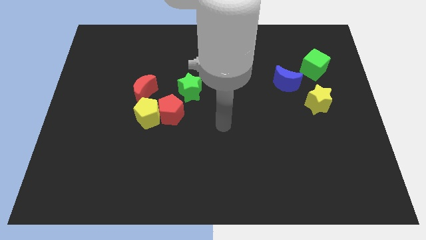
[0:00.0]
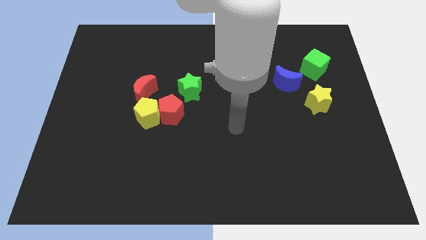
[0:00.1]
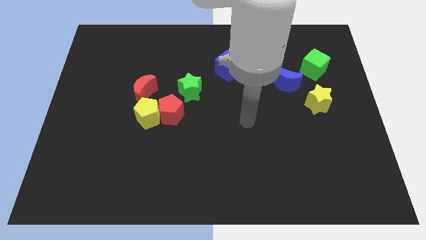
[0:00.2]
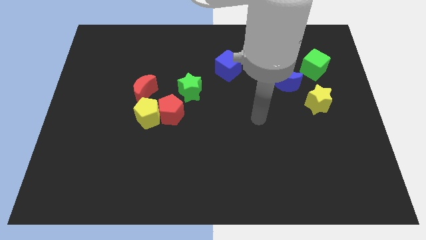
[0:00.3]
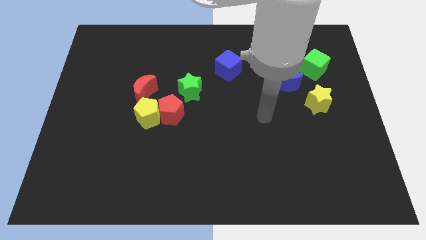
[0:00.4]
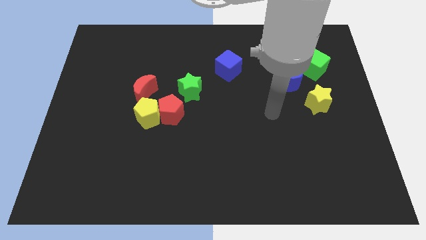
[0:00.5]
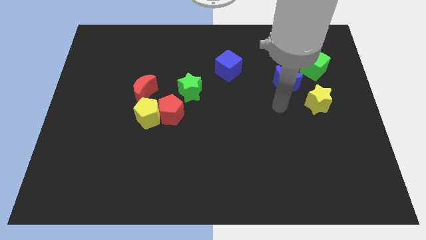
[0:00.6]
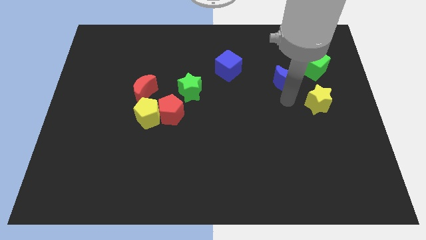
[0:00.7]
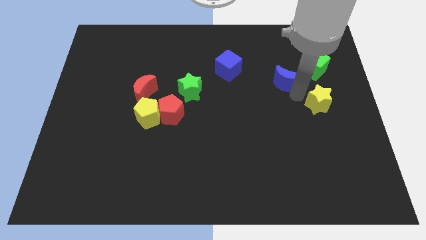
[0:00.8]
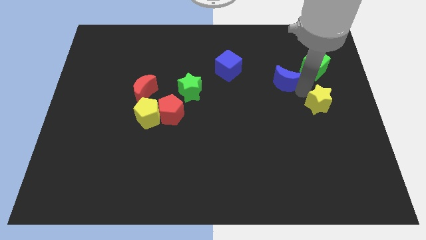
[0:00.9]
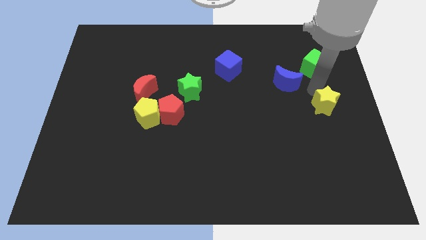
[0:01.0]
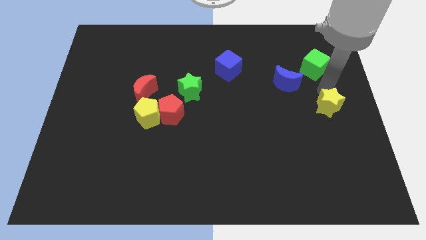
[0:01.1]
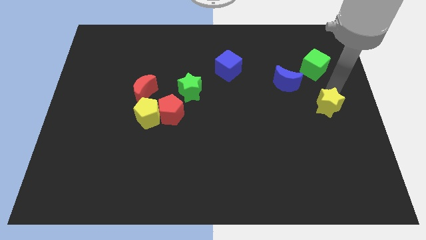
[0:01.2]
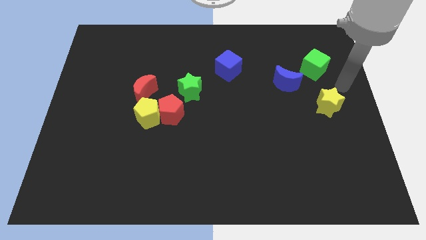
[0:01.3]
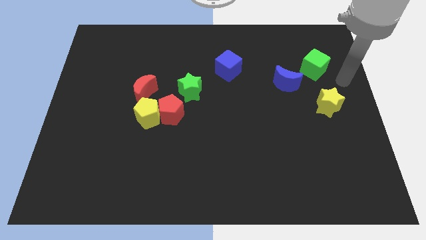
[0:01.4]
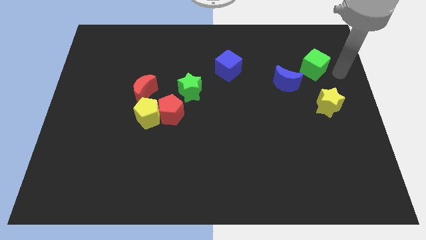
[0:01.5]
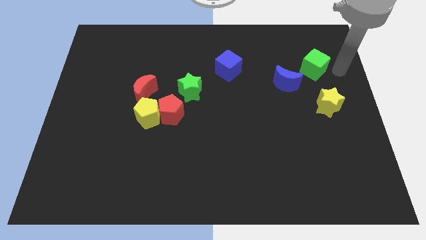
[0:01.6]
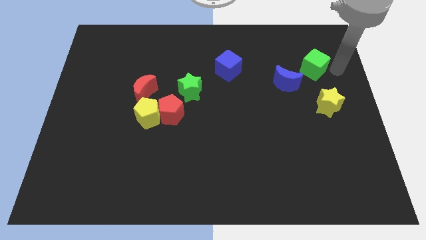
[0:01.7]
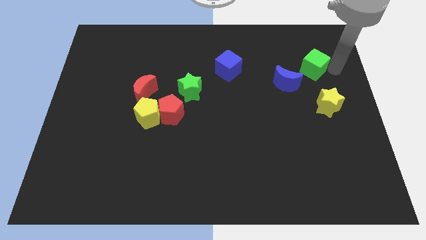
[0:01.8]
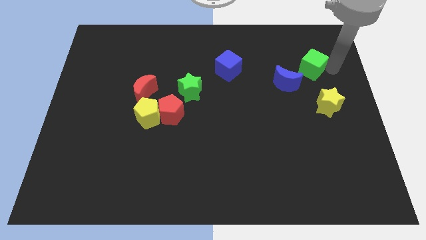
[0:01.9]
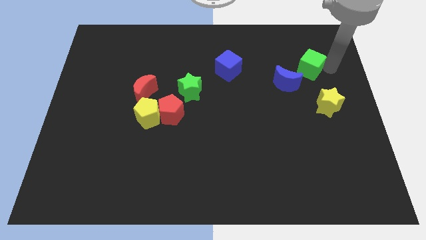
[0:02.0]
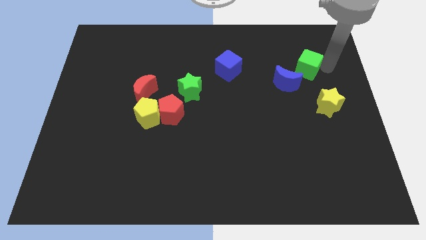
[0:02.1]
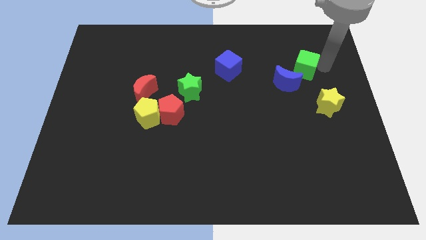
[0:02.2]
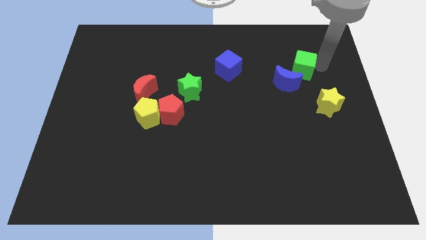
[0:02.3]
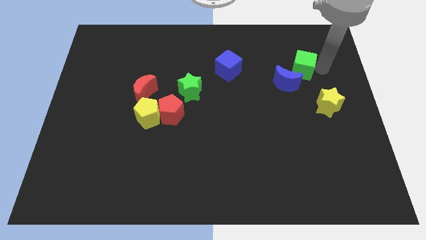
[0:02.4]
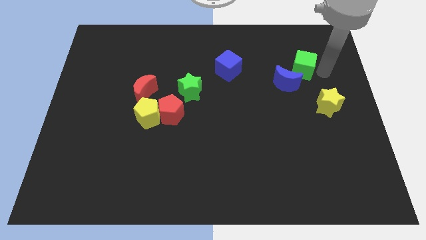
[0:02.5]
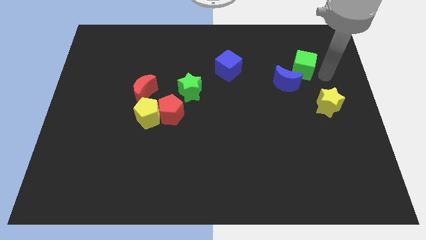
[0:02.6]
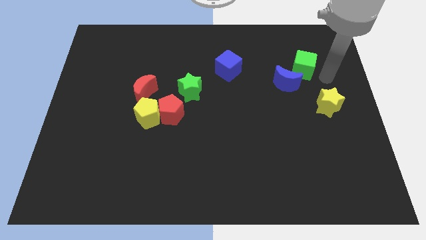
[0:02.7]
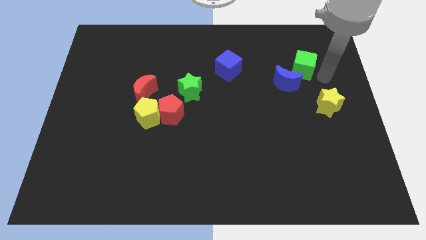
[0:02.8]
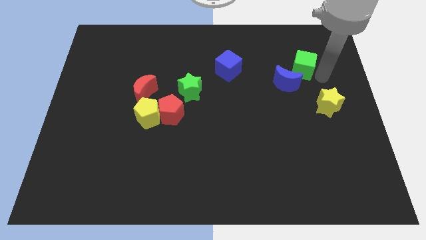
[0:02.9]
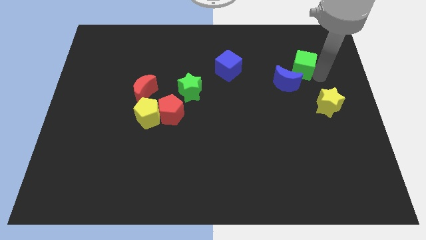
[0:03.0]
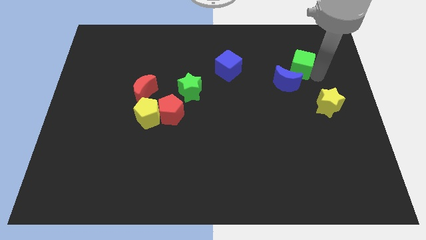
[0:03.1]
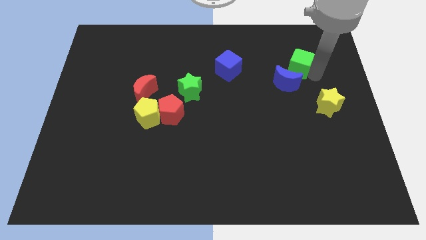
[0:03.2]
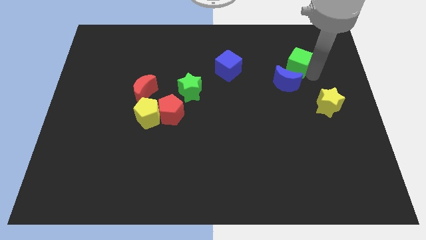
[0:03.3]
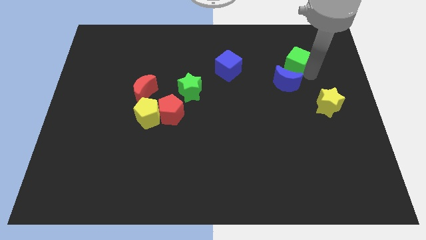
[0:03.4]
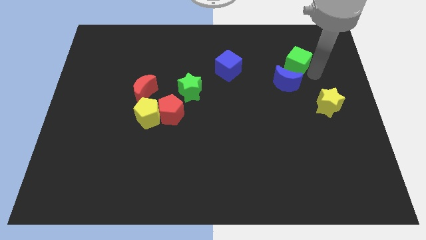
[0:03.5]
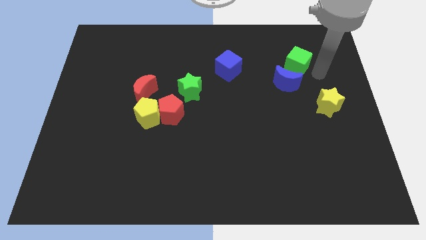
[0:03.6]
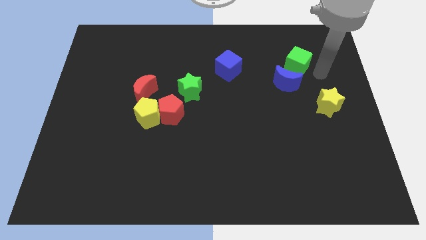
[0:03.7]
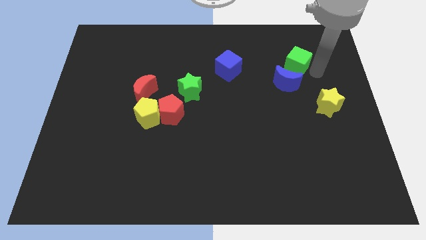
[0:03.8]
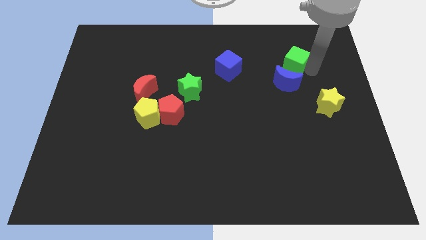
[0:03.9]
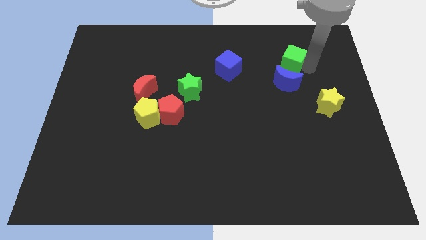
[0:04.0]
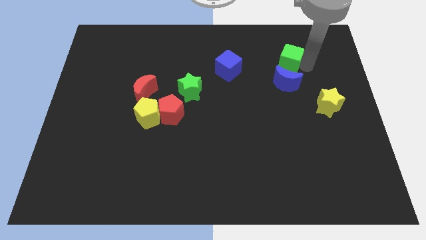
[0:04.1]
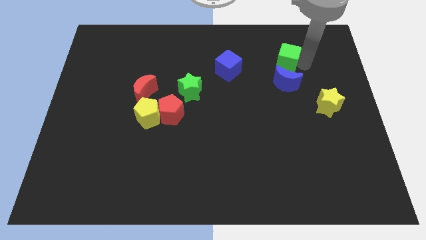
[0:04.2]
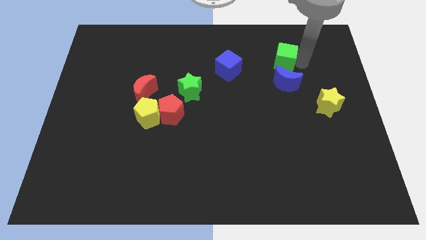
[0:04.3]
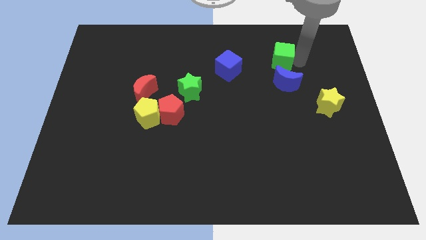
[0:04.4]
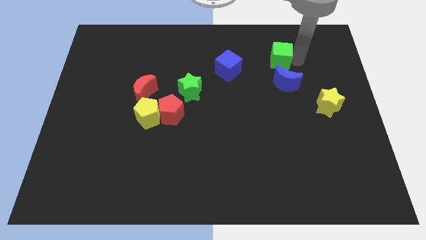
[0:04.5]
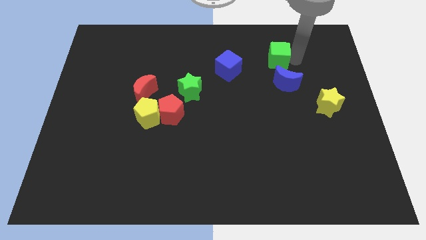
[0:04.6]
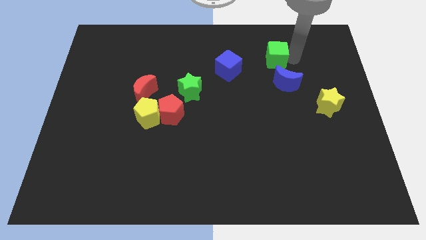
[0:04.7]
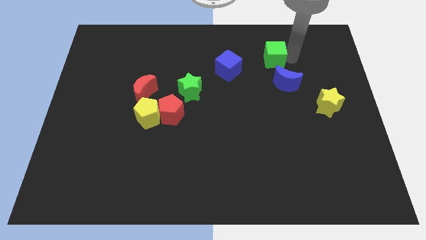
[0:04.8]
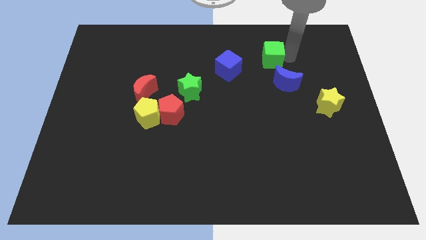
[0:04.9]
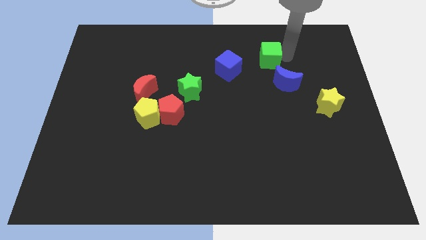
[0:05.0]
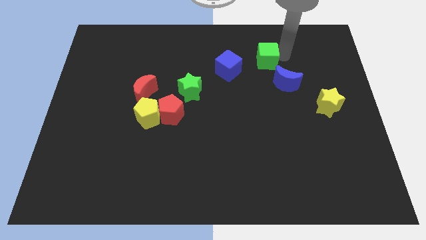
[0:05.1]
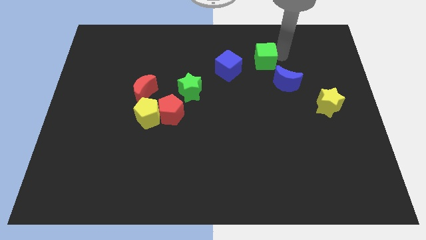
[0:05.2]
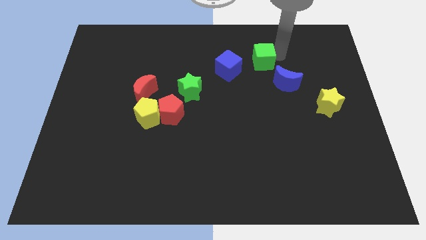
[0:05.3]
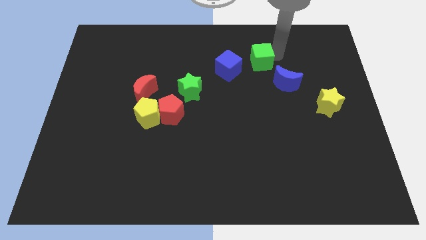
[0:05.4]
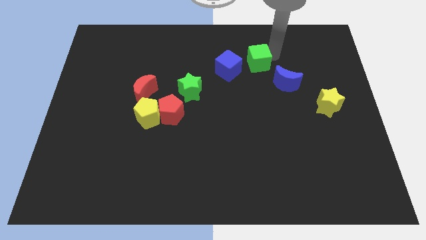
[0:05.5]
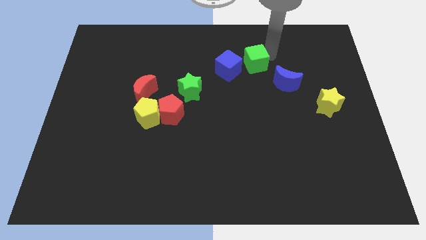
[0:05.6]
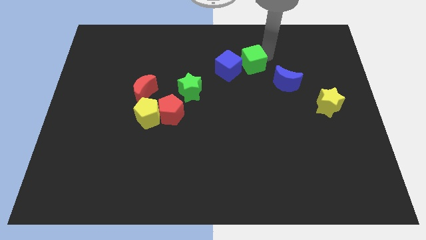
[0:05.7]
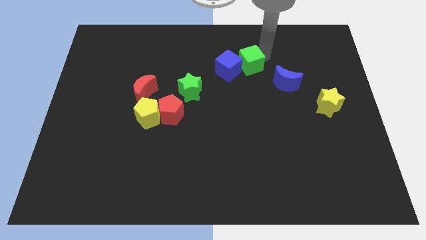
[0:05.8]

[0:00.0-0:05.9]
push the green cube next to the blue cube
